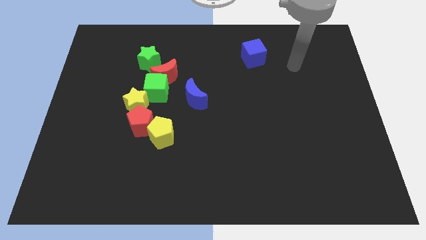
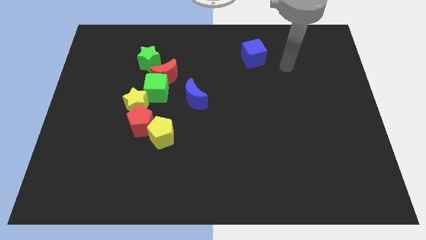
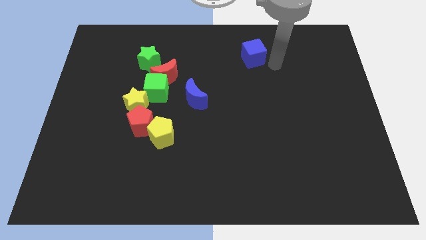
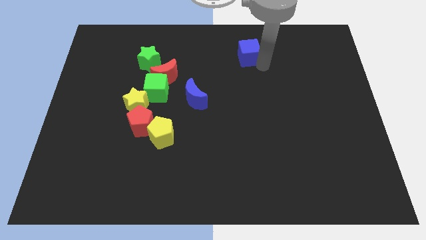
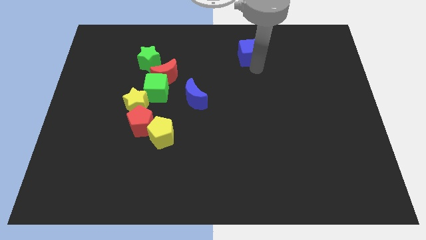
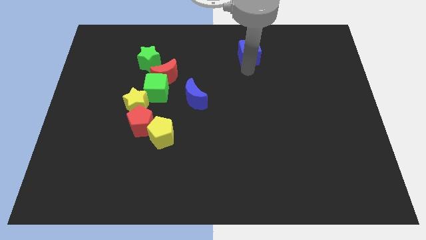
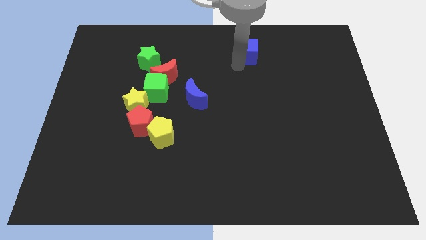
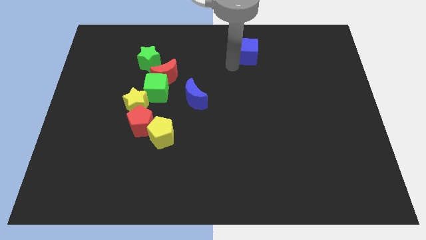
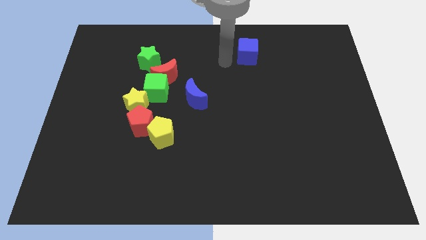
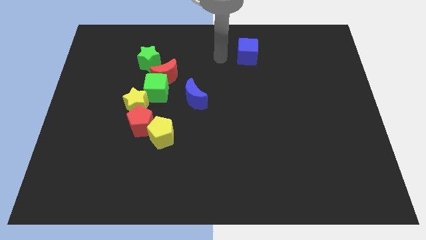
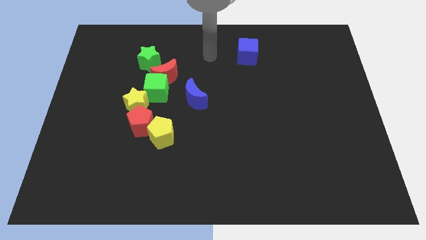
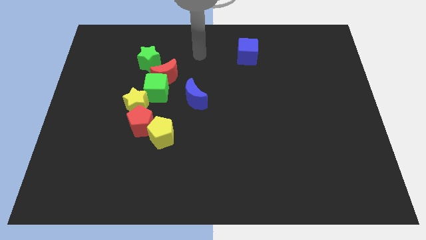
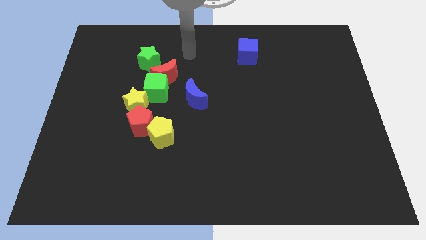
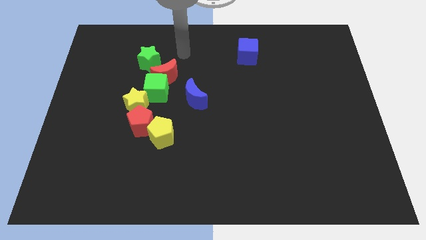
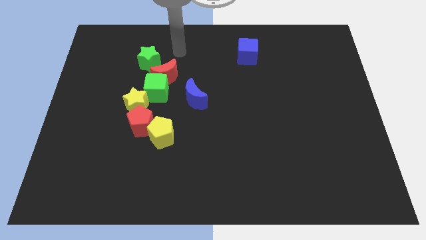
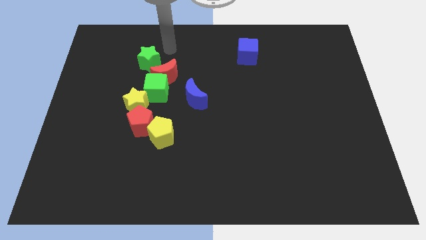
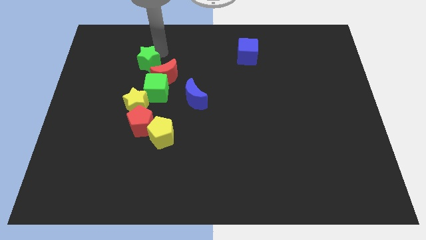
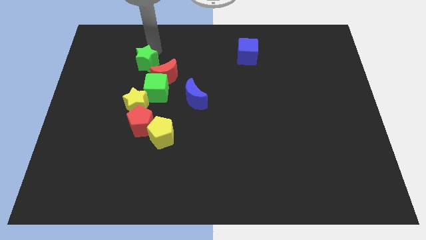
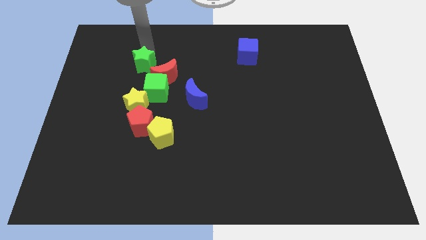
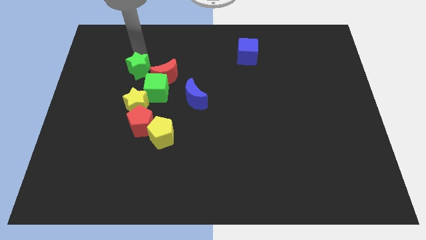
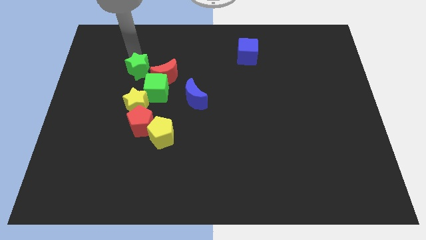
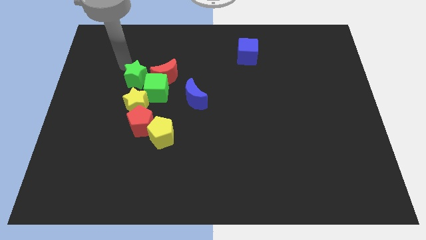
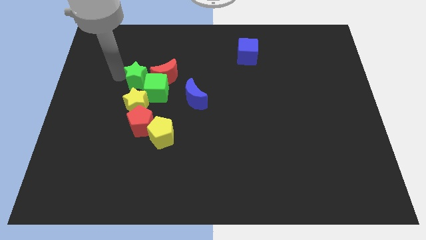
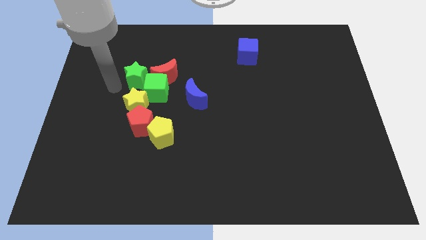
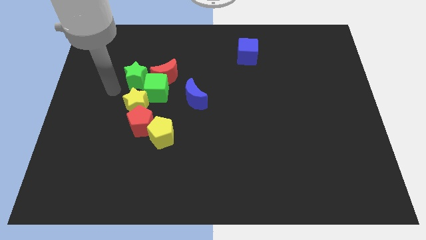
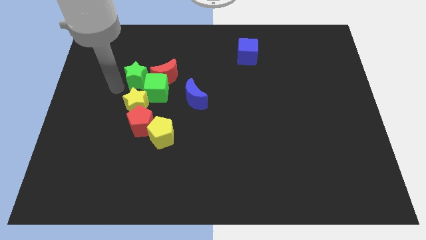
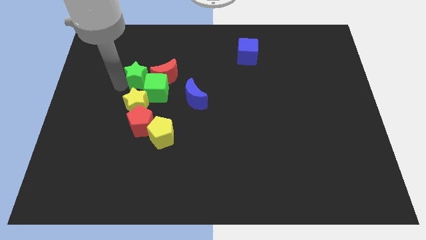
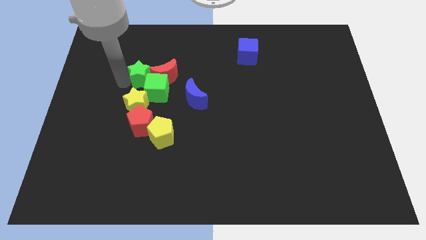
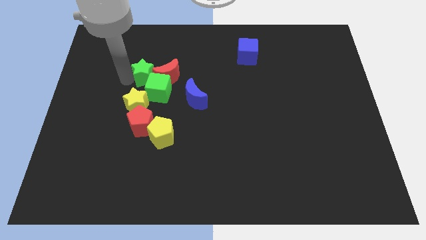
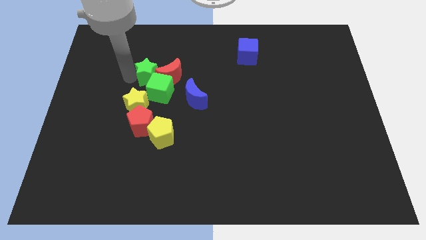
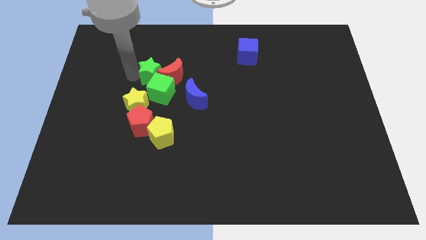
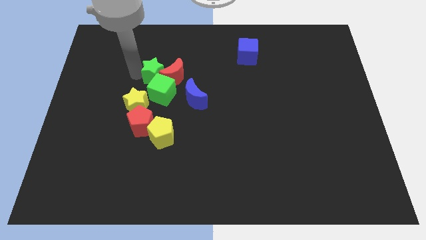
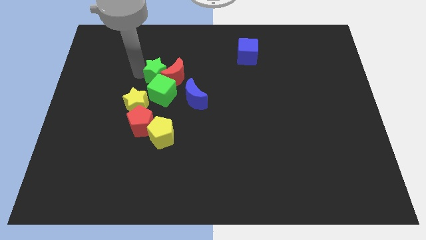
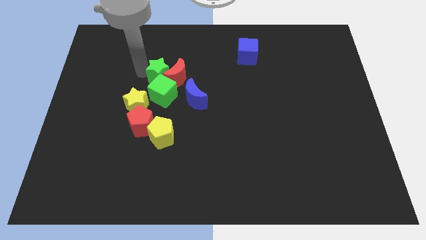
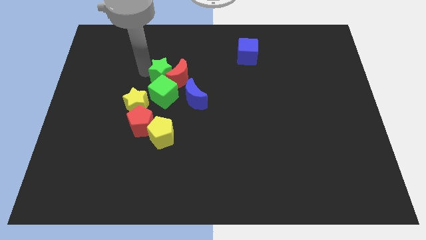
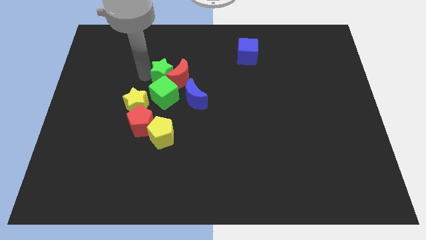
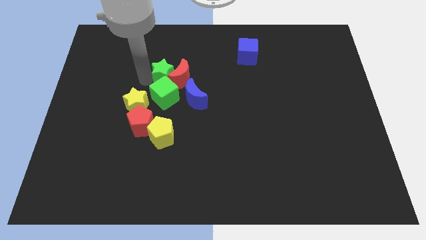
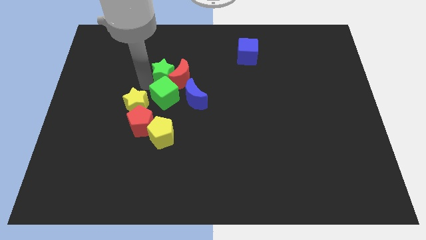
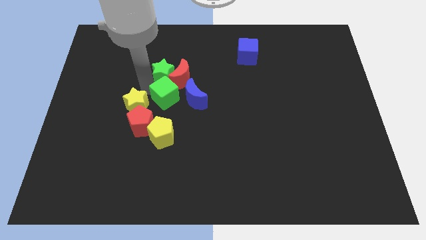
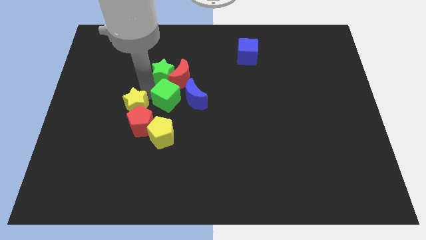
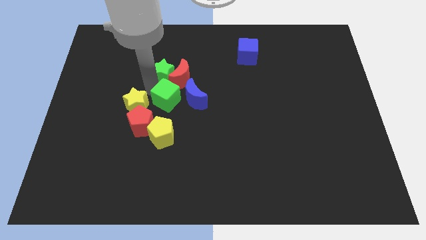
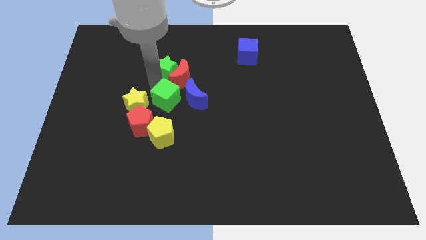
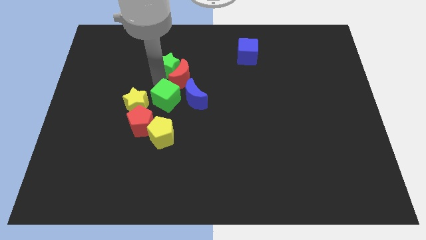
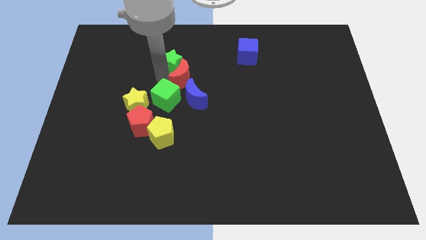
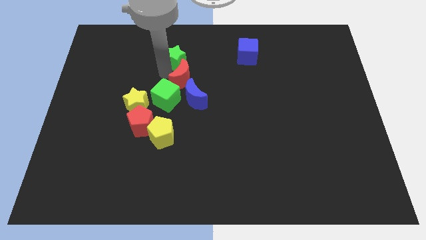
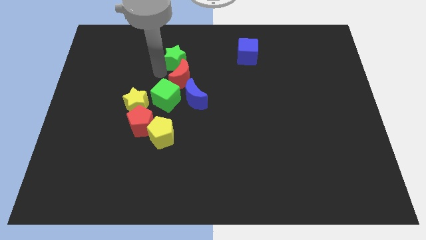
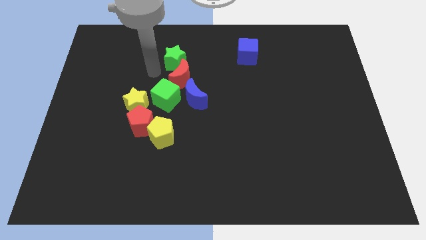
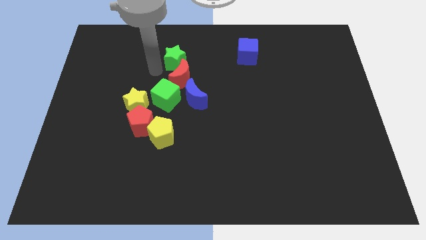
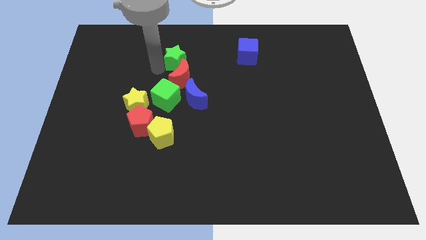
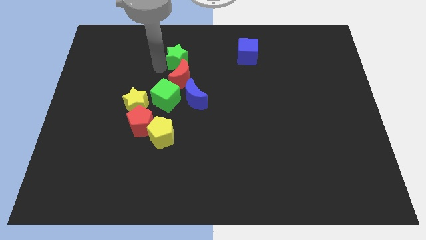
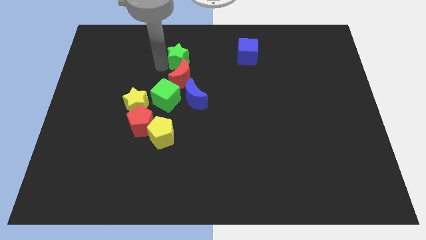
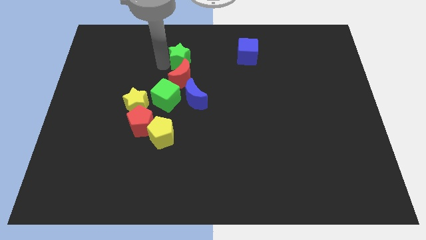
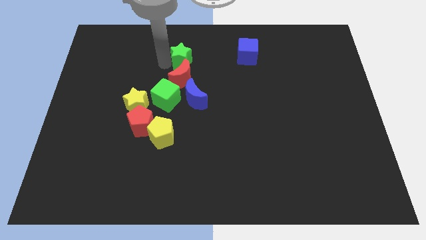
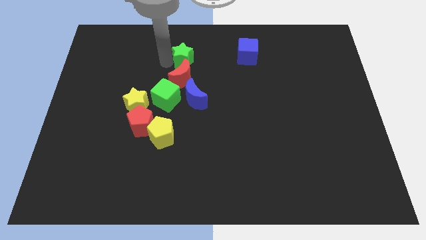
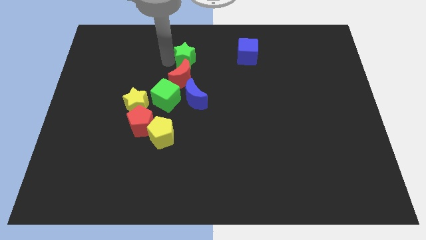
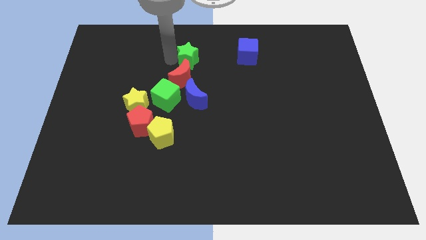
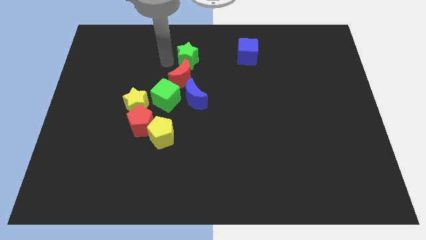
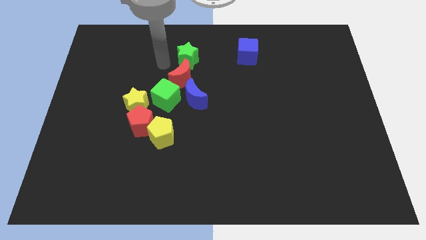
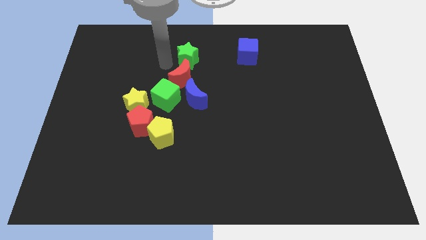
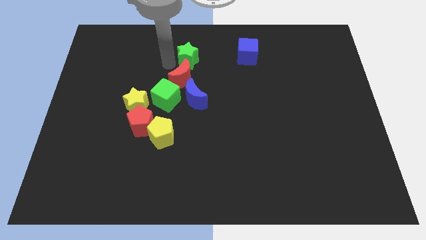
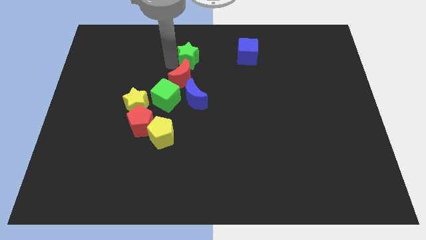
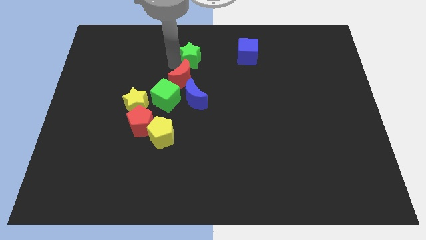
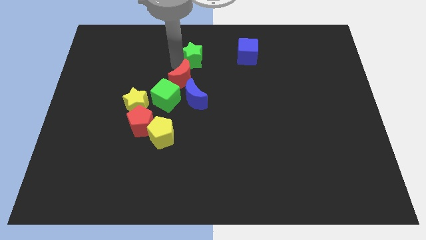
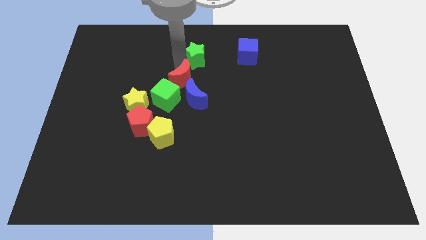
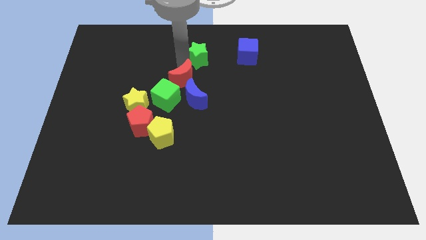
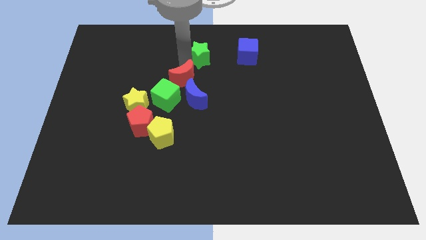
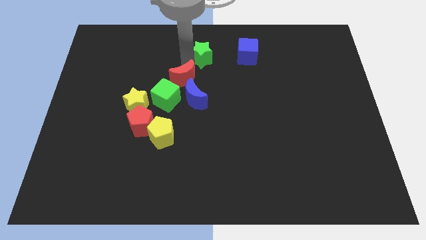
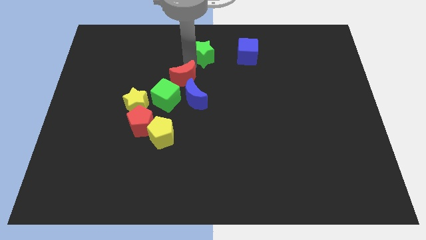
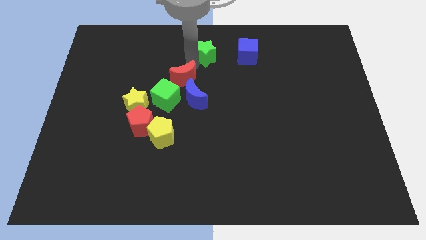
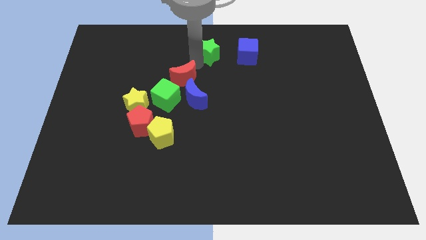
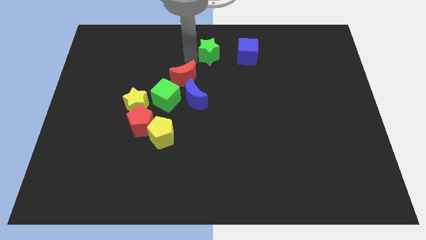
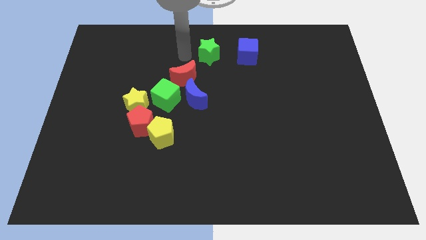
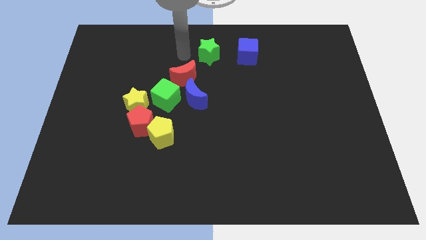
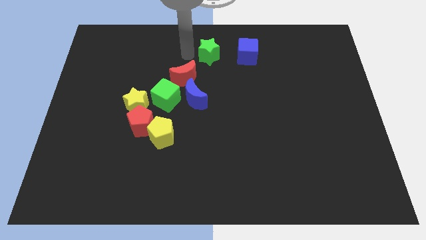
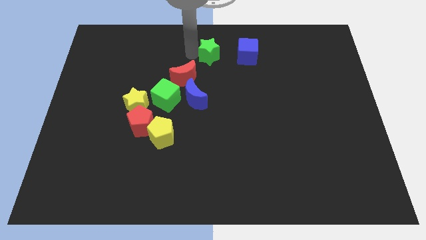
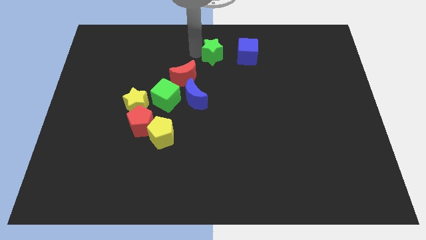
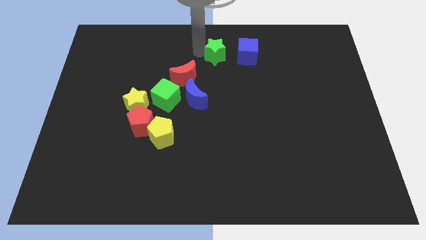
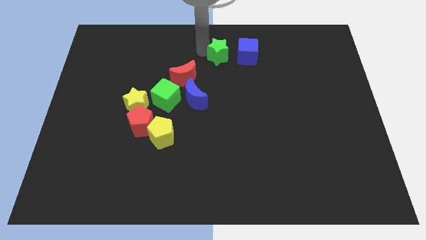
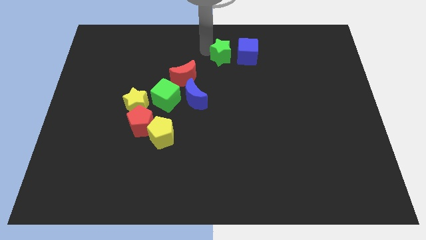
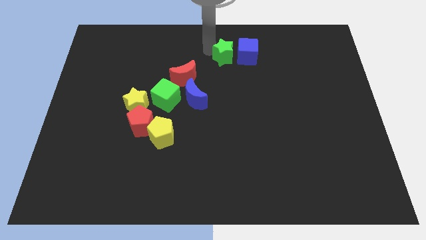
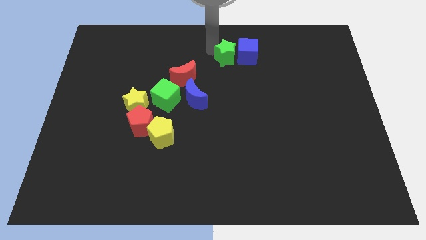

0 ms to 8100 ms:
put the green star to the blue cube
